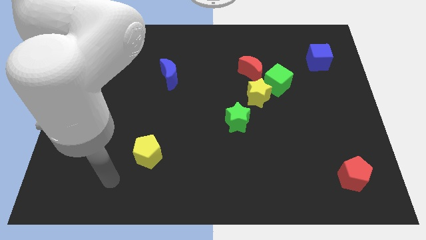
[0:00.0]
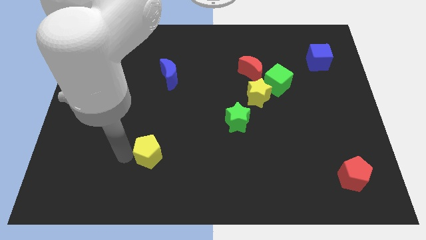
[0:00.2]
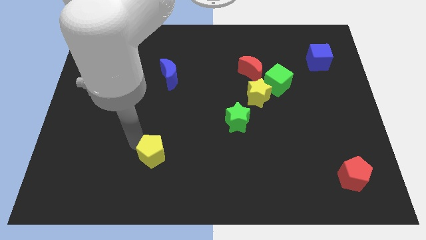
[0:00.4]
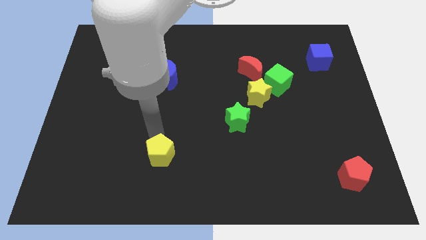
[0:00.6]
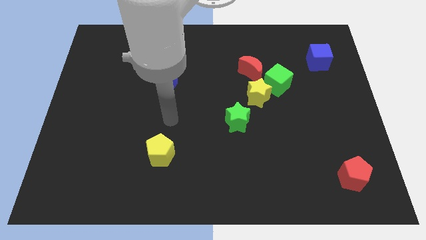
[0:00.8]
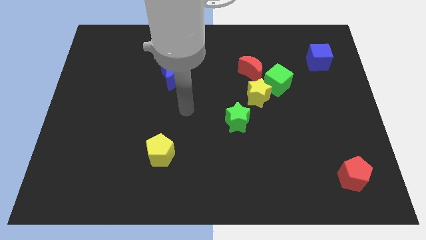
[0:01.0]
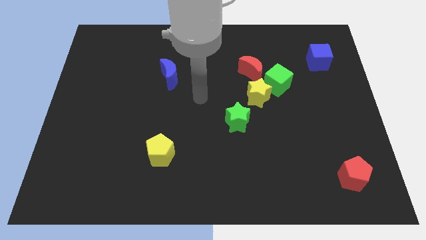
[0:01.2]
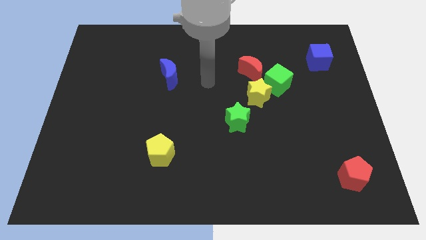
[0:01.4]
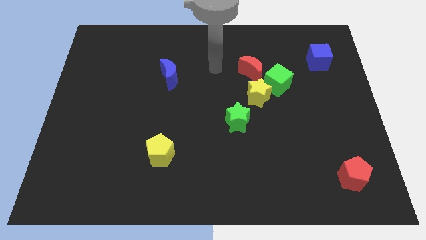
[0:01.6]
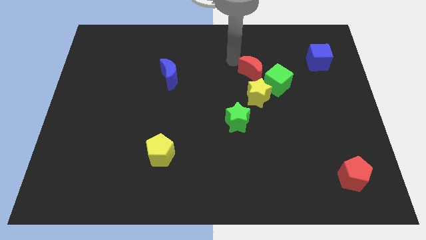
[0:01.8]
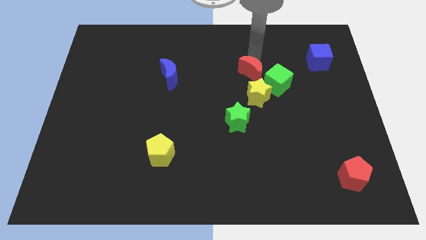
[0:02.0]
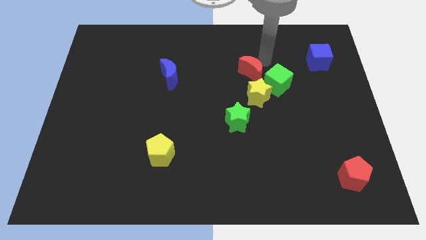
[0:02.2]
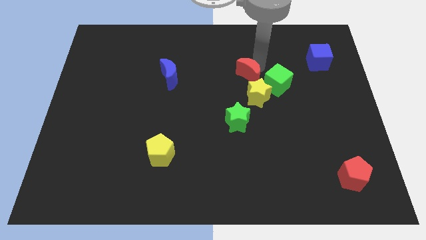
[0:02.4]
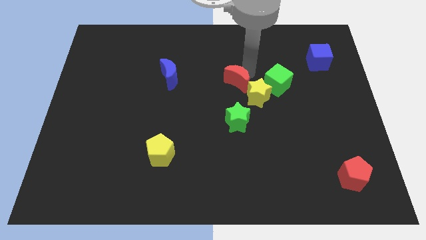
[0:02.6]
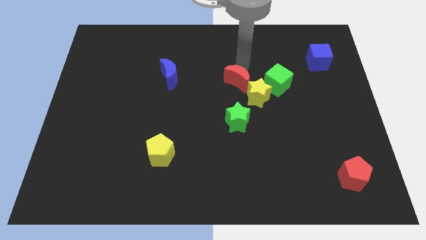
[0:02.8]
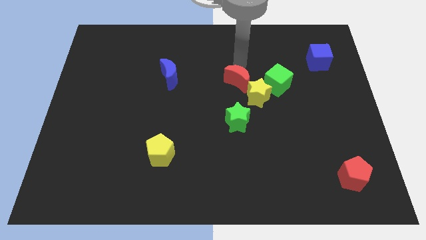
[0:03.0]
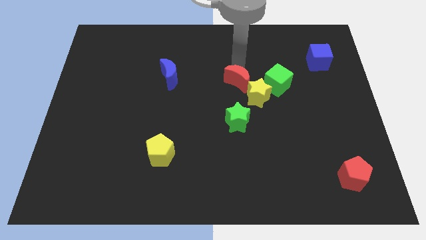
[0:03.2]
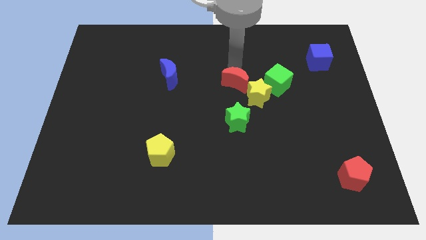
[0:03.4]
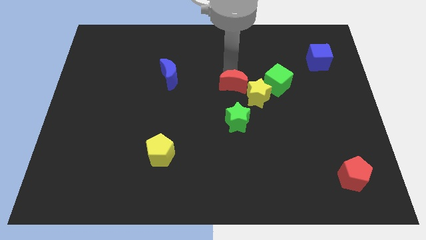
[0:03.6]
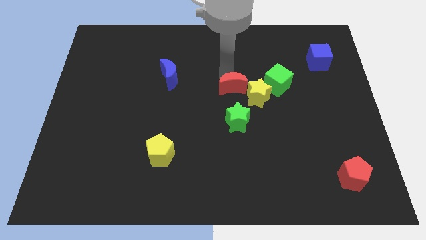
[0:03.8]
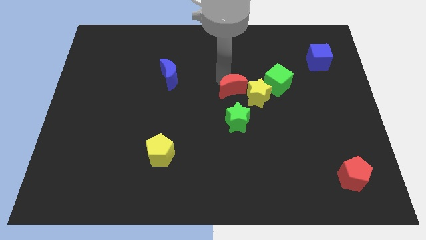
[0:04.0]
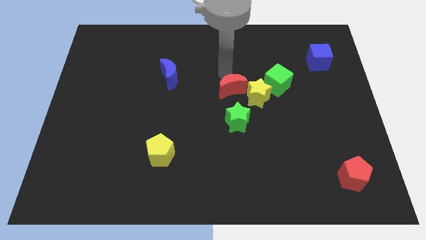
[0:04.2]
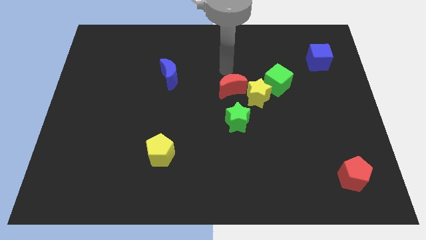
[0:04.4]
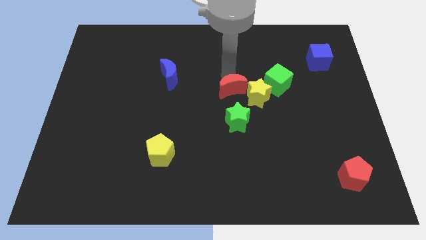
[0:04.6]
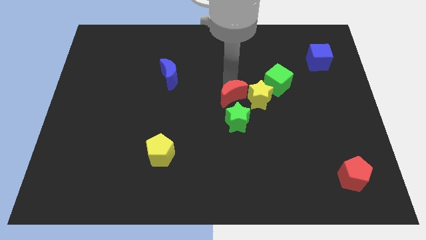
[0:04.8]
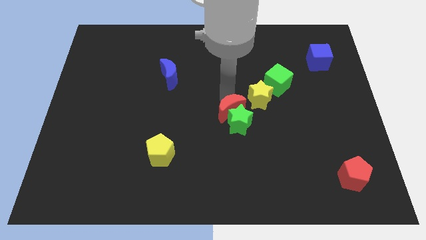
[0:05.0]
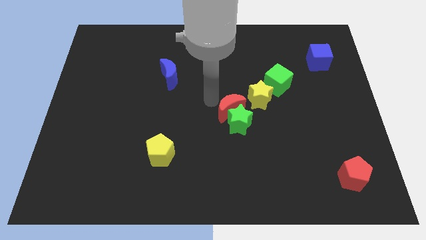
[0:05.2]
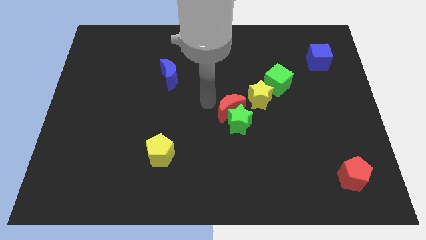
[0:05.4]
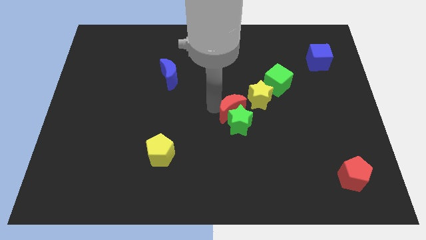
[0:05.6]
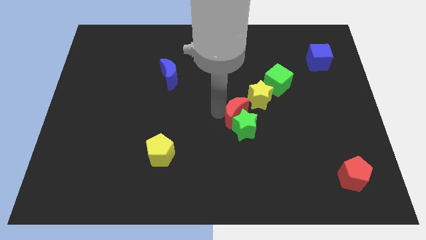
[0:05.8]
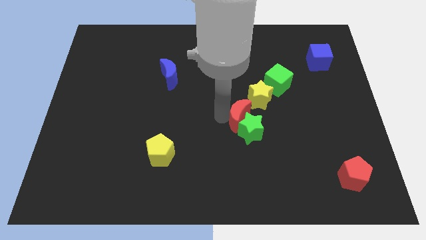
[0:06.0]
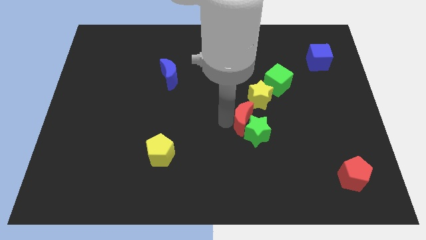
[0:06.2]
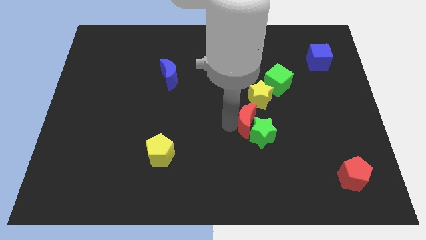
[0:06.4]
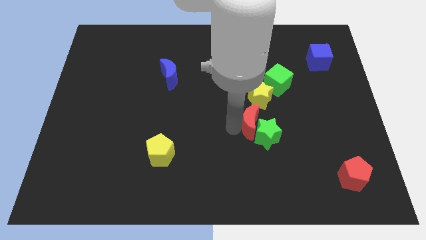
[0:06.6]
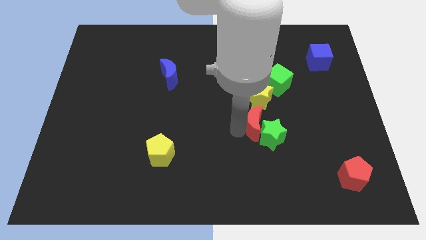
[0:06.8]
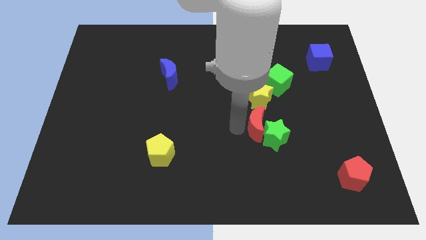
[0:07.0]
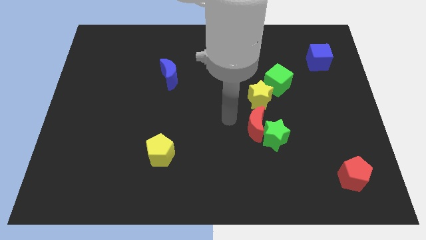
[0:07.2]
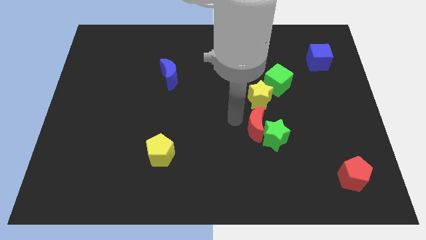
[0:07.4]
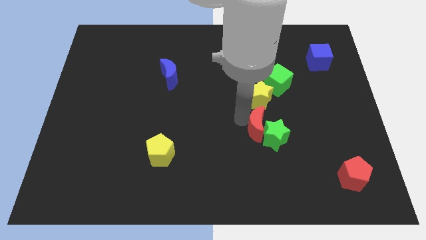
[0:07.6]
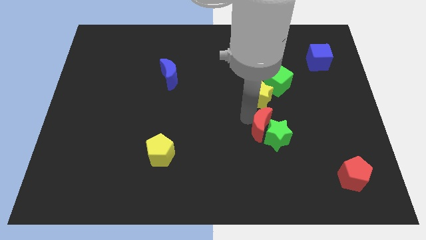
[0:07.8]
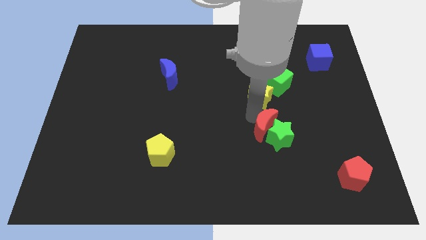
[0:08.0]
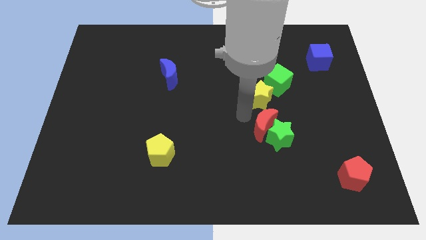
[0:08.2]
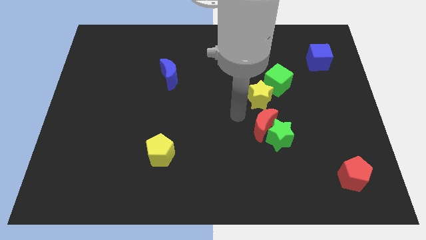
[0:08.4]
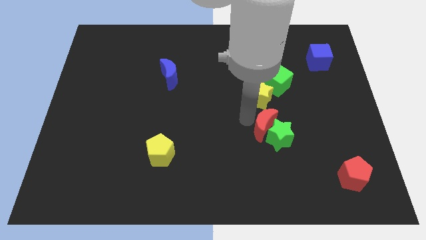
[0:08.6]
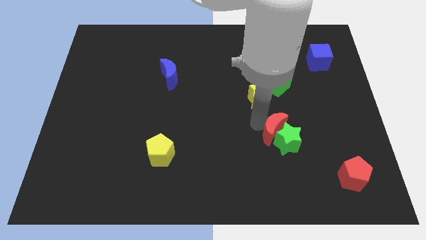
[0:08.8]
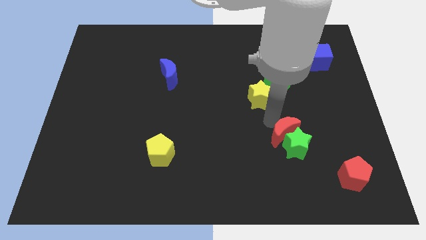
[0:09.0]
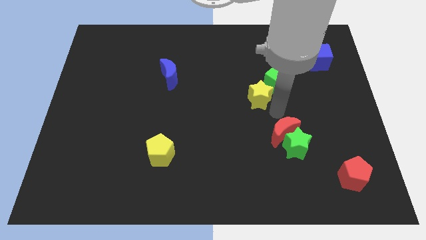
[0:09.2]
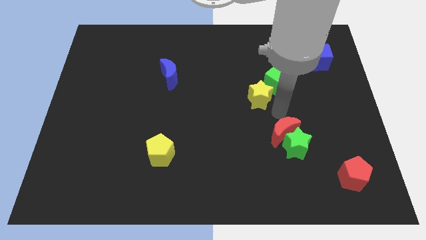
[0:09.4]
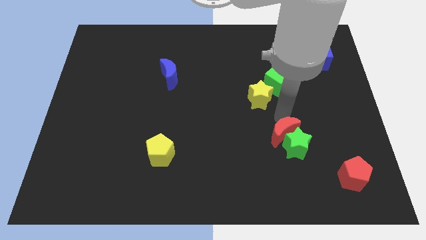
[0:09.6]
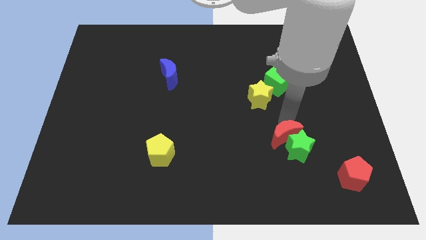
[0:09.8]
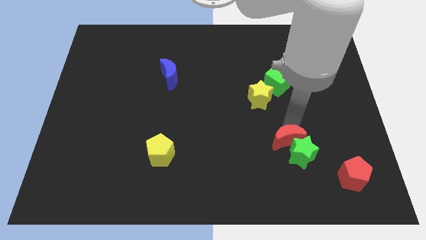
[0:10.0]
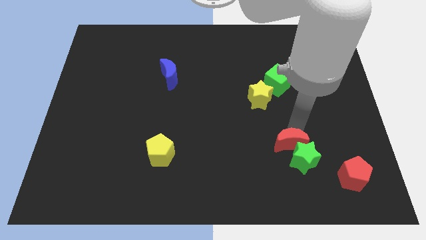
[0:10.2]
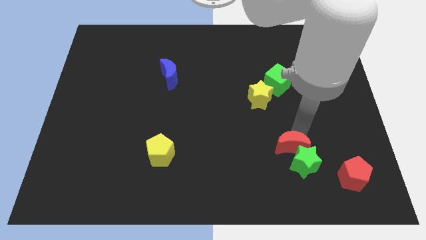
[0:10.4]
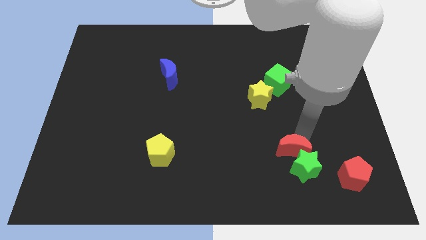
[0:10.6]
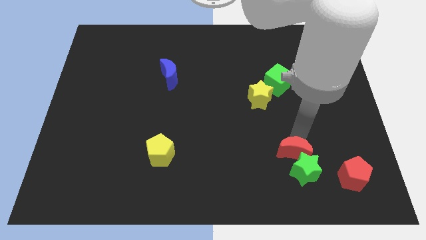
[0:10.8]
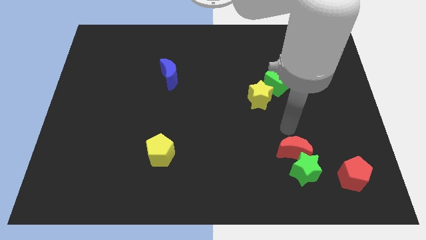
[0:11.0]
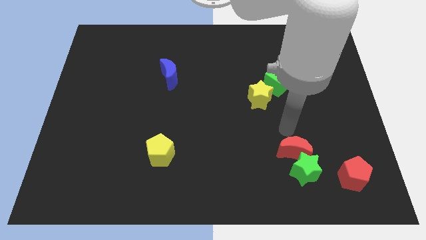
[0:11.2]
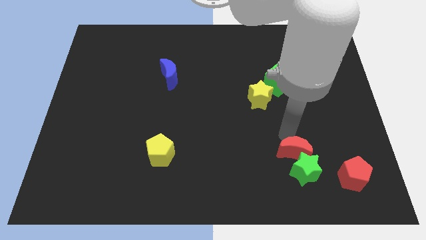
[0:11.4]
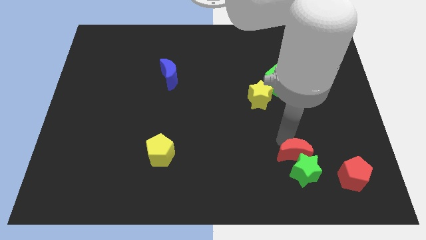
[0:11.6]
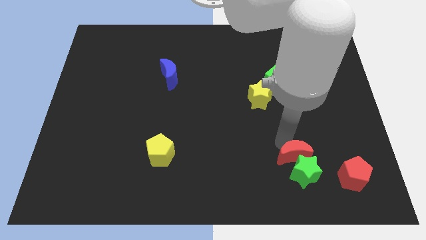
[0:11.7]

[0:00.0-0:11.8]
push the red moon just left of the red pentagon

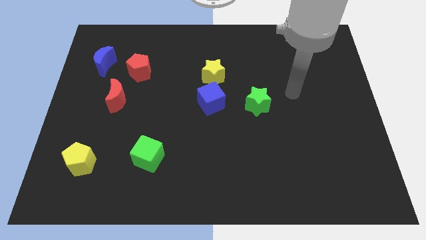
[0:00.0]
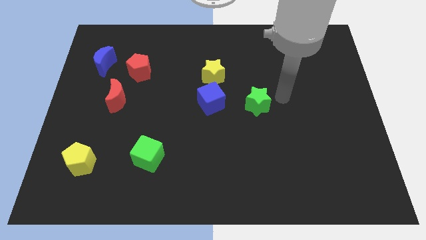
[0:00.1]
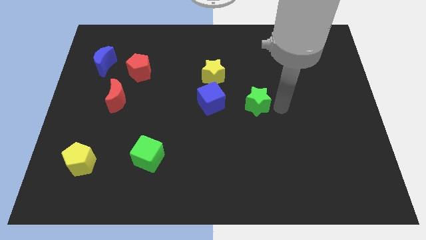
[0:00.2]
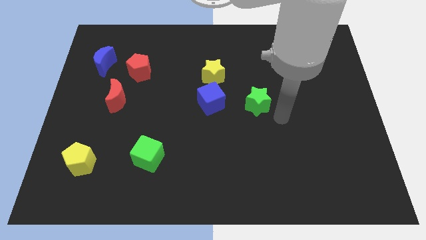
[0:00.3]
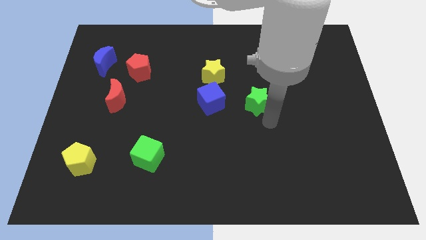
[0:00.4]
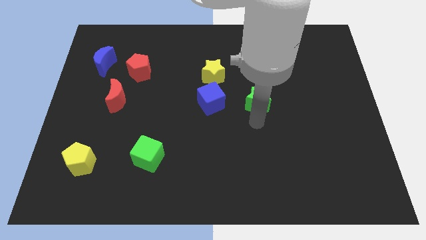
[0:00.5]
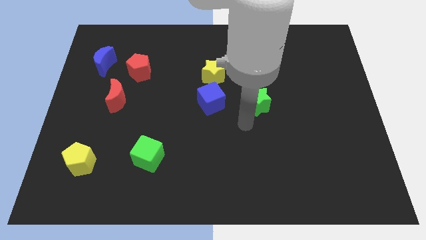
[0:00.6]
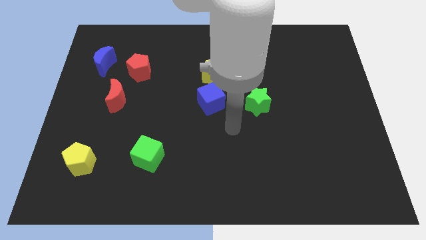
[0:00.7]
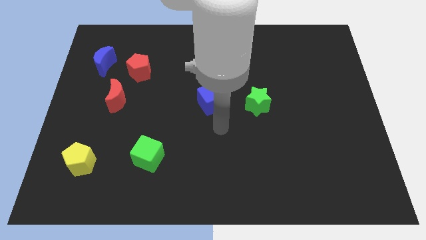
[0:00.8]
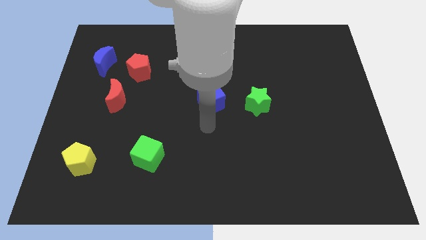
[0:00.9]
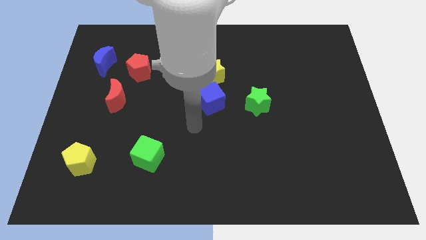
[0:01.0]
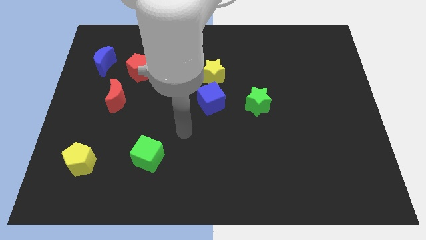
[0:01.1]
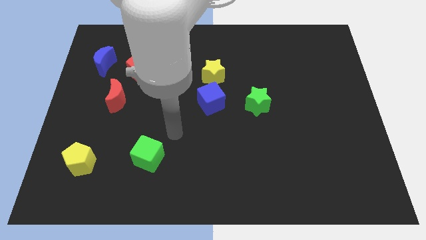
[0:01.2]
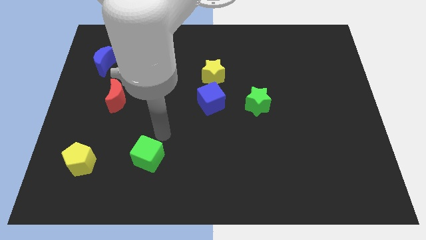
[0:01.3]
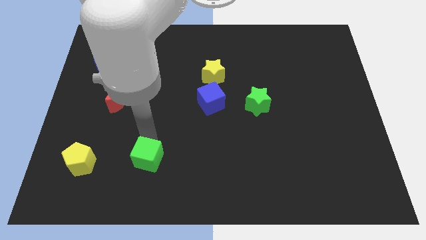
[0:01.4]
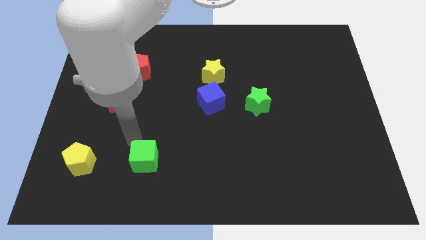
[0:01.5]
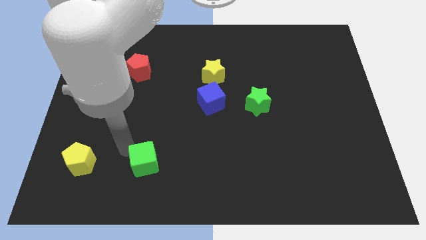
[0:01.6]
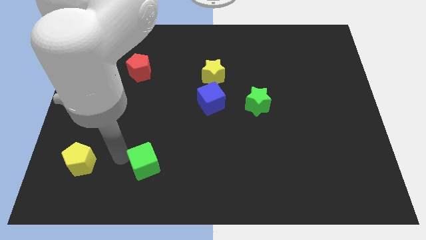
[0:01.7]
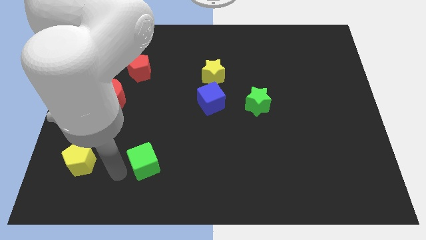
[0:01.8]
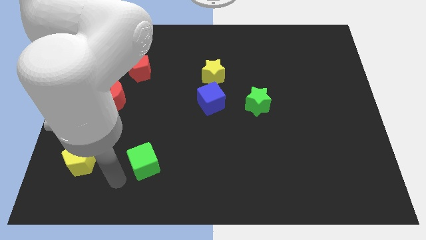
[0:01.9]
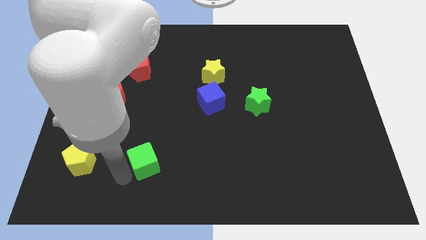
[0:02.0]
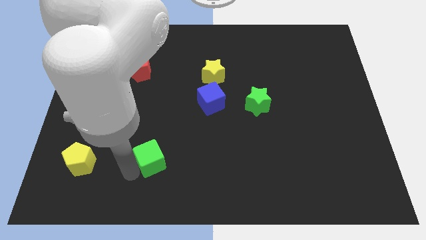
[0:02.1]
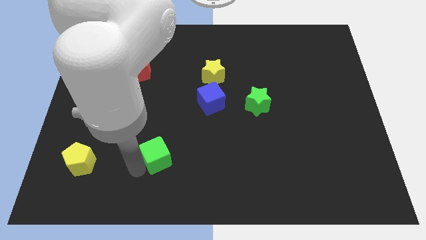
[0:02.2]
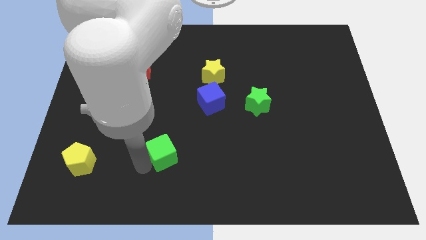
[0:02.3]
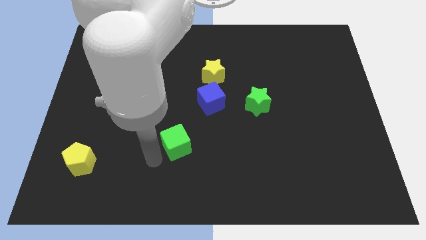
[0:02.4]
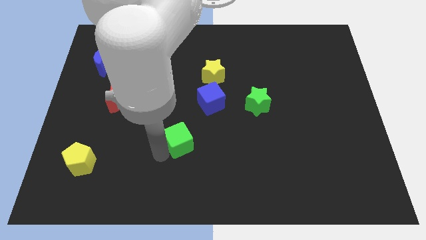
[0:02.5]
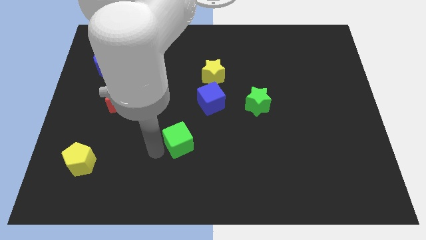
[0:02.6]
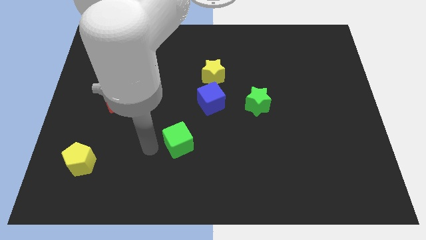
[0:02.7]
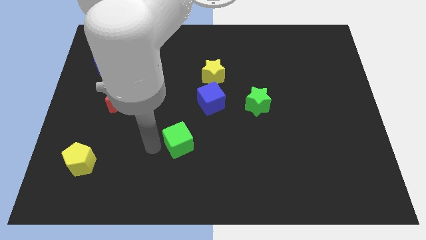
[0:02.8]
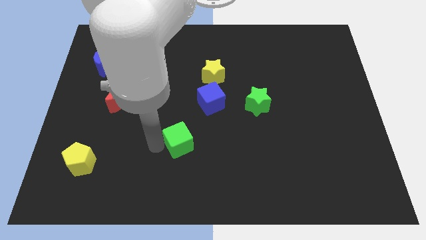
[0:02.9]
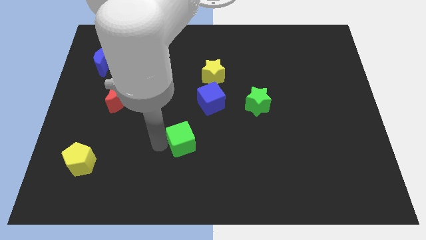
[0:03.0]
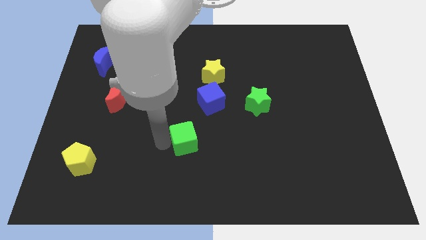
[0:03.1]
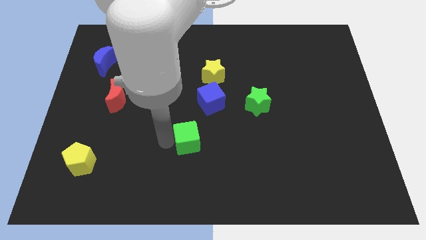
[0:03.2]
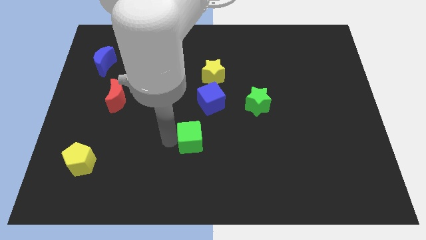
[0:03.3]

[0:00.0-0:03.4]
move the green cube to the bottom side of the blue cube
